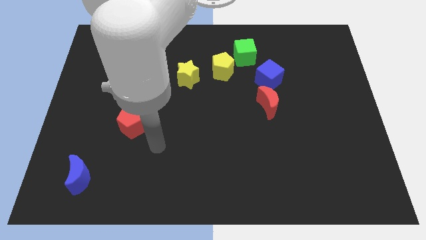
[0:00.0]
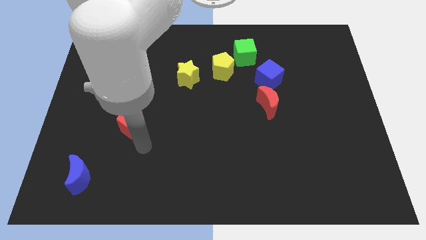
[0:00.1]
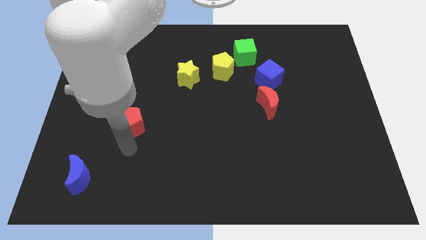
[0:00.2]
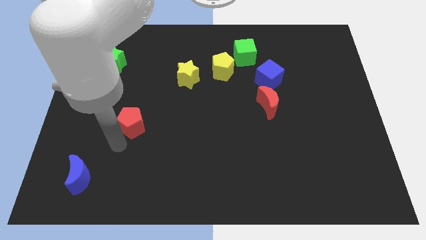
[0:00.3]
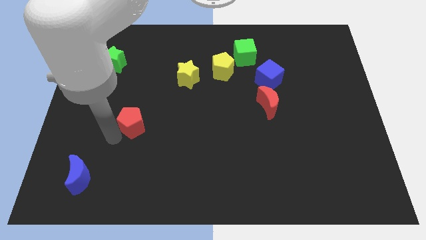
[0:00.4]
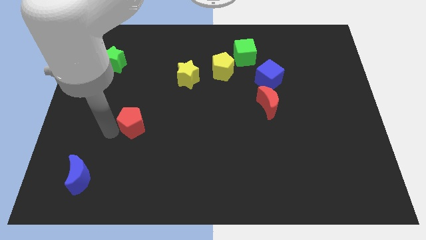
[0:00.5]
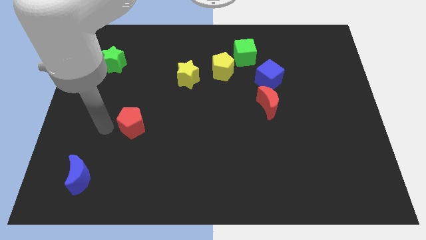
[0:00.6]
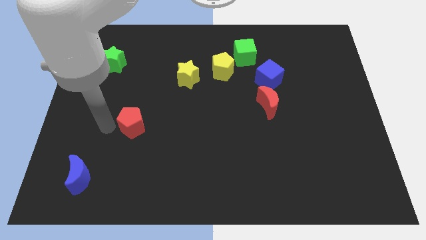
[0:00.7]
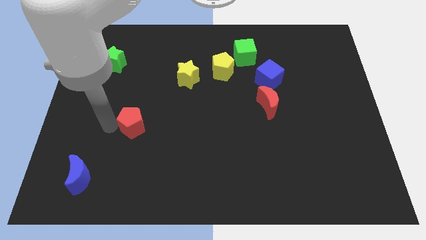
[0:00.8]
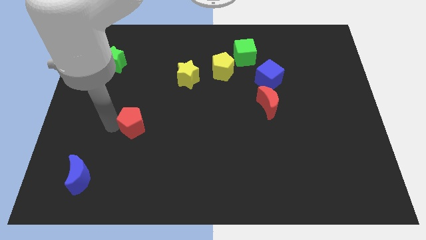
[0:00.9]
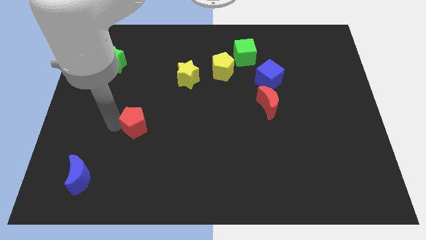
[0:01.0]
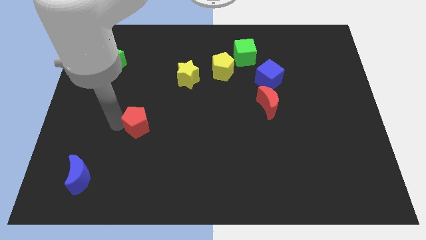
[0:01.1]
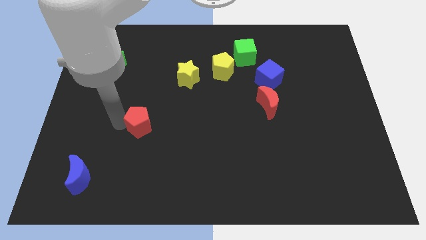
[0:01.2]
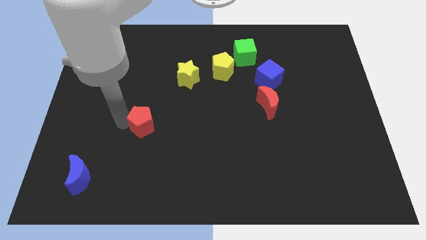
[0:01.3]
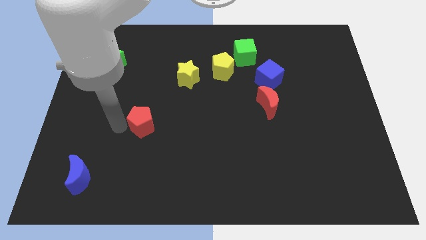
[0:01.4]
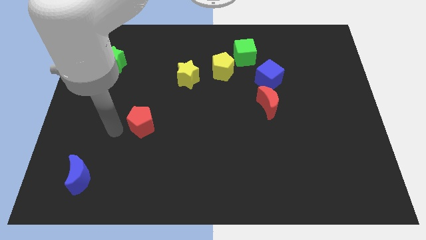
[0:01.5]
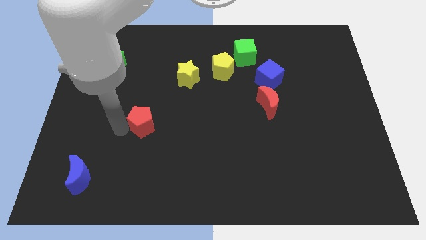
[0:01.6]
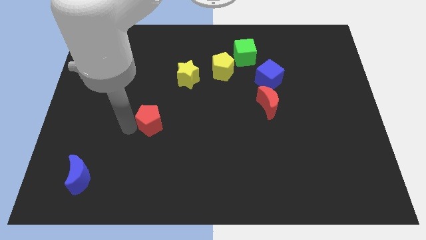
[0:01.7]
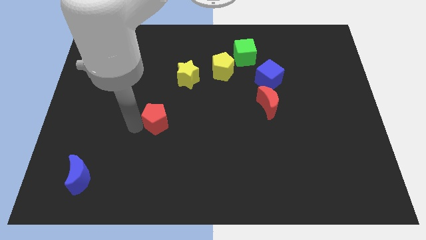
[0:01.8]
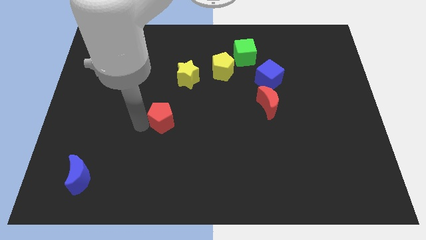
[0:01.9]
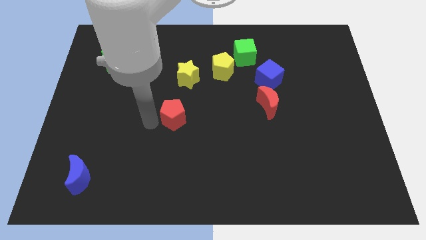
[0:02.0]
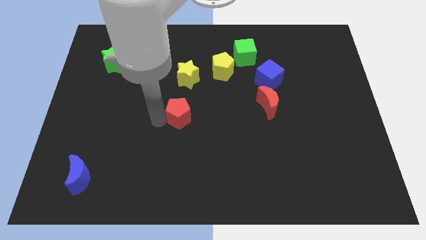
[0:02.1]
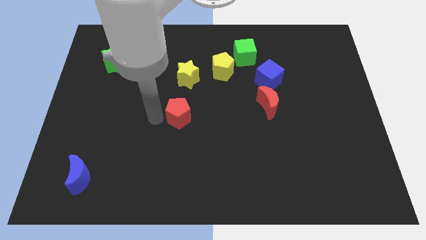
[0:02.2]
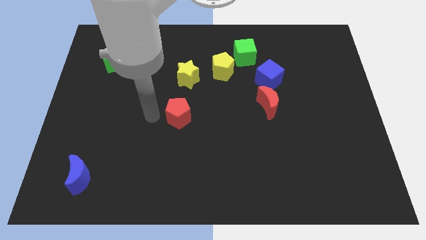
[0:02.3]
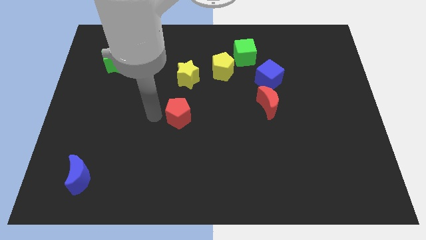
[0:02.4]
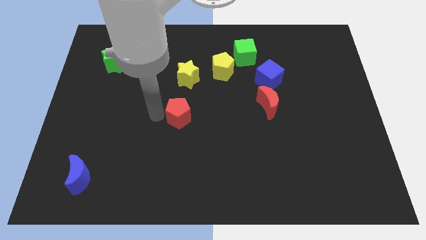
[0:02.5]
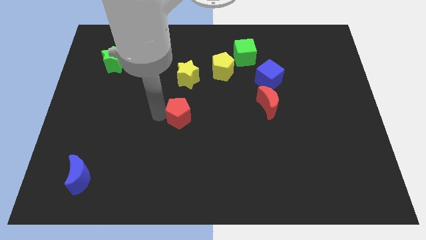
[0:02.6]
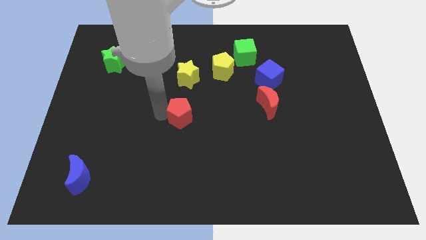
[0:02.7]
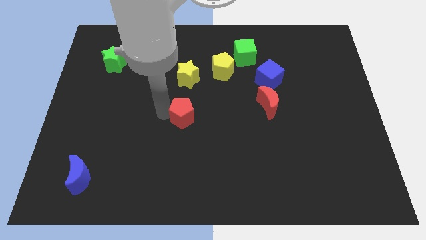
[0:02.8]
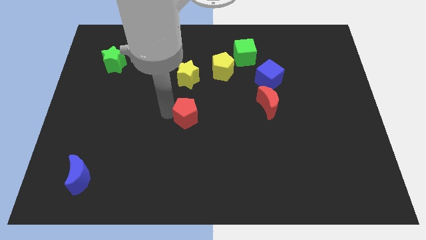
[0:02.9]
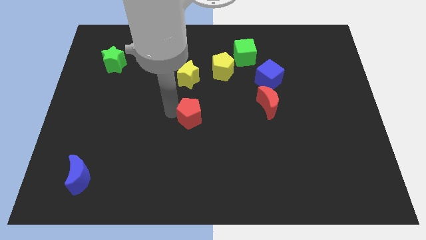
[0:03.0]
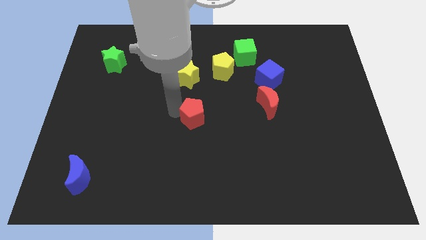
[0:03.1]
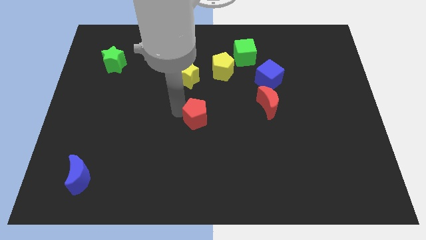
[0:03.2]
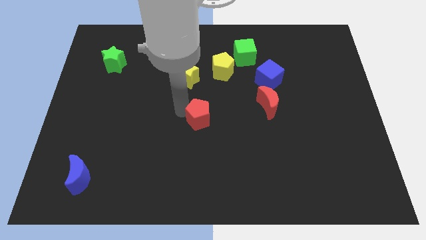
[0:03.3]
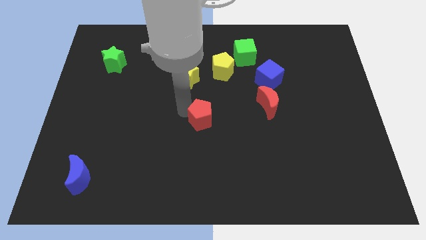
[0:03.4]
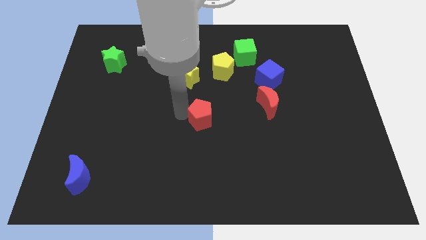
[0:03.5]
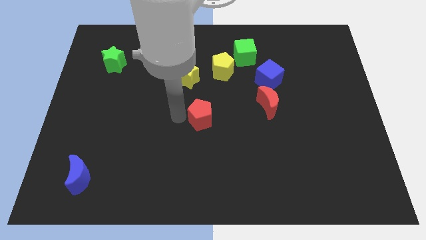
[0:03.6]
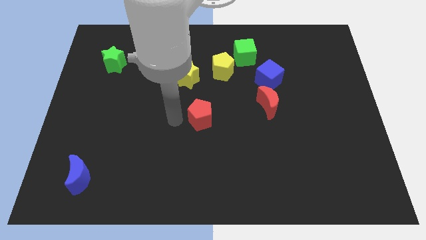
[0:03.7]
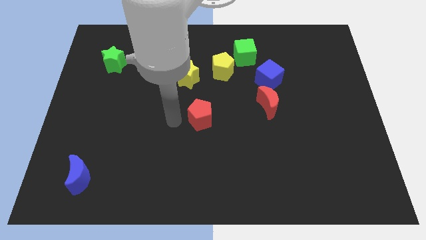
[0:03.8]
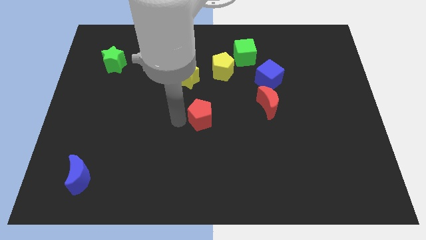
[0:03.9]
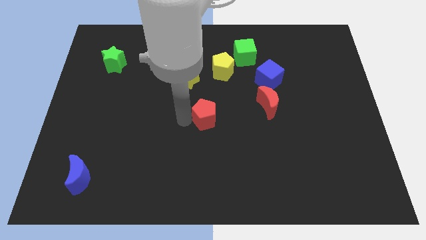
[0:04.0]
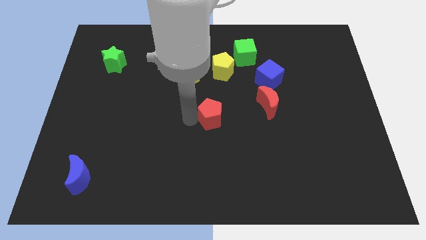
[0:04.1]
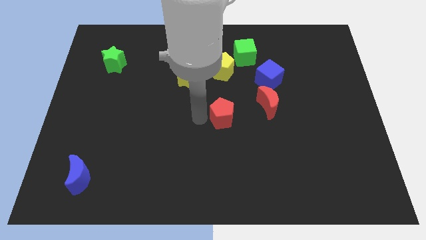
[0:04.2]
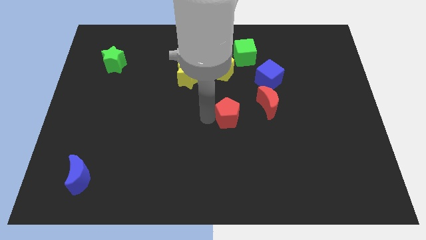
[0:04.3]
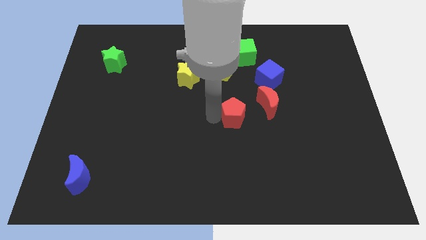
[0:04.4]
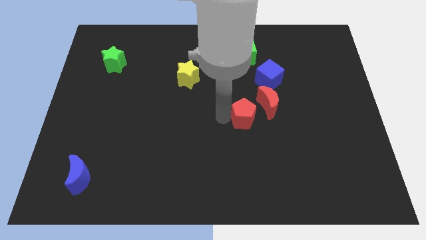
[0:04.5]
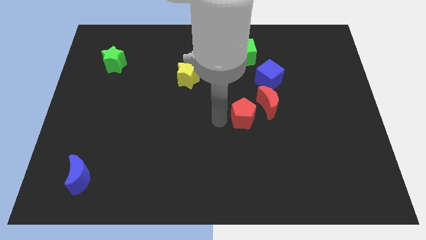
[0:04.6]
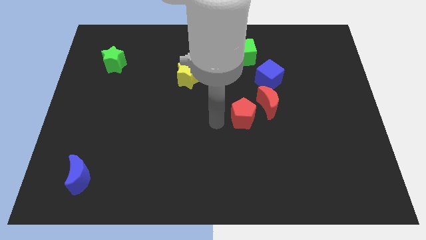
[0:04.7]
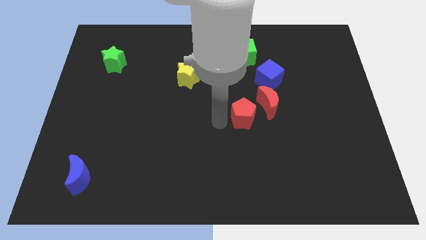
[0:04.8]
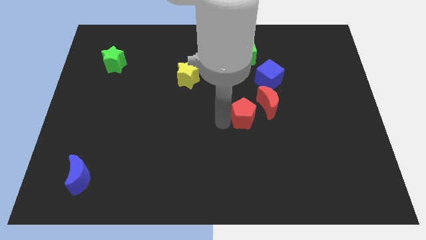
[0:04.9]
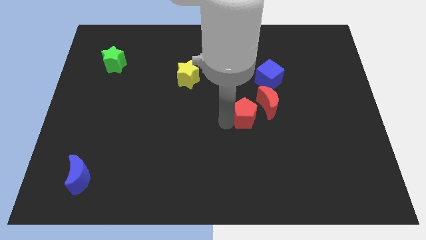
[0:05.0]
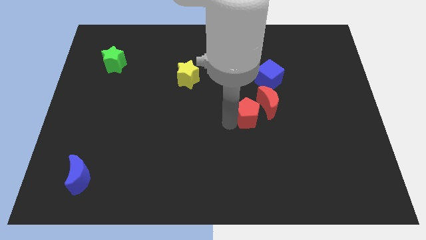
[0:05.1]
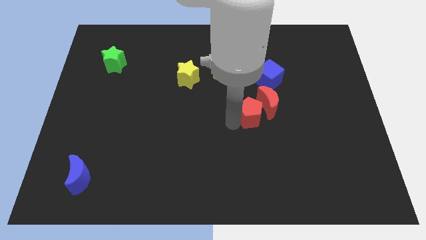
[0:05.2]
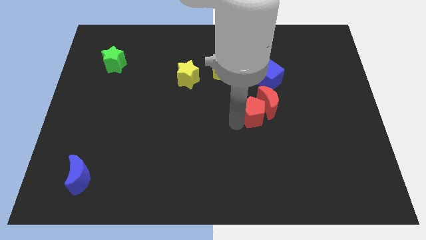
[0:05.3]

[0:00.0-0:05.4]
slide the red pentagon below the blue cube

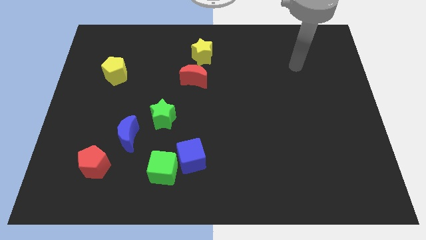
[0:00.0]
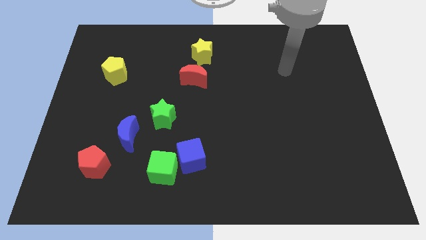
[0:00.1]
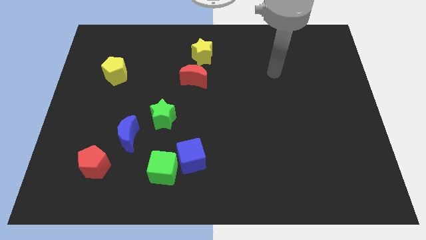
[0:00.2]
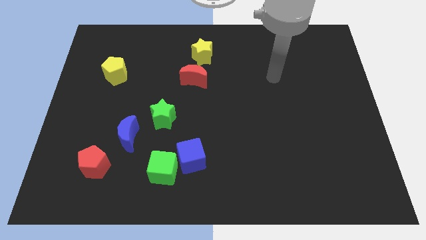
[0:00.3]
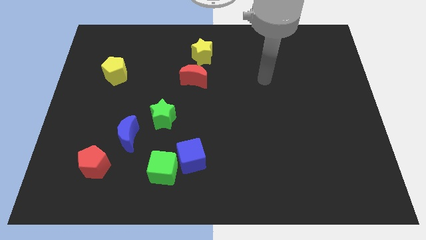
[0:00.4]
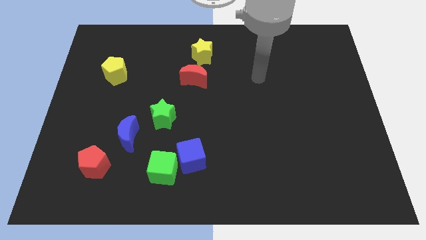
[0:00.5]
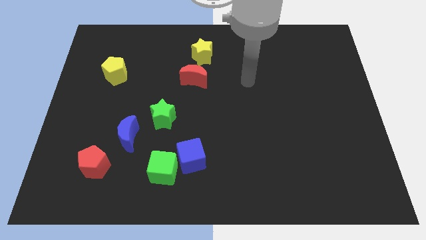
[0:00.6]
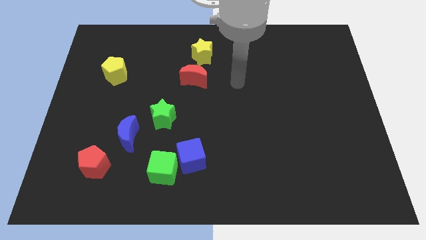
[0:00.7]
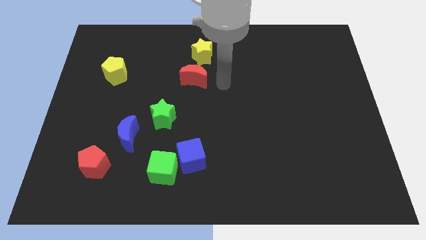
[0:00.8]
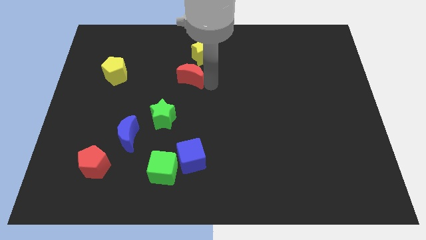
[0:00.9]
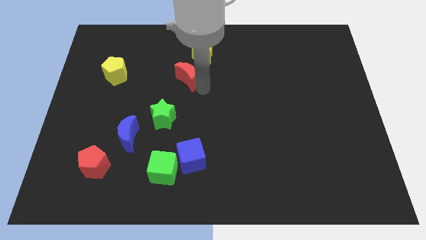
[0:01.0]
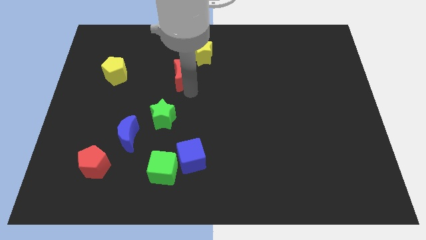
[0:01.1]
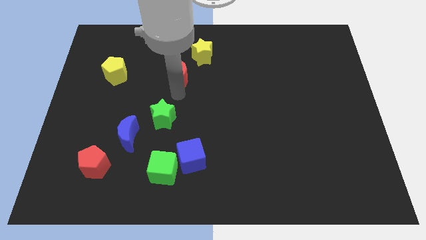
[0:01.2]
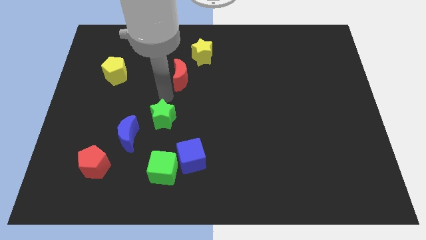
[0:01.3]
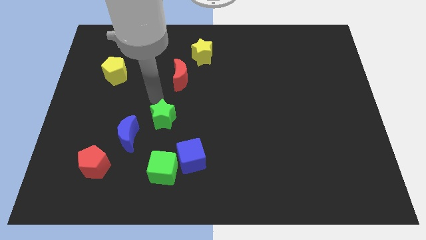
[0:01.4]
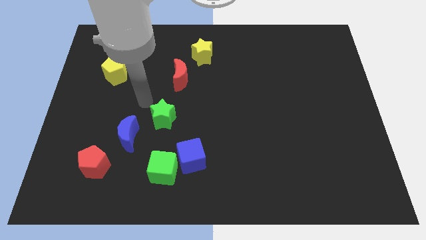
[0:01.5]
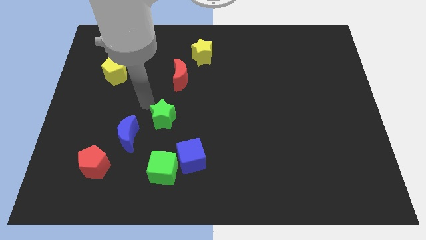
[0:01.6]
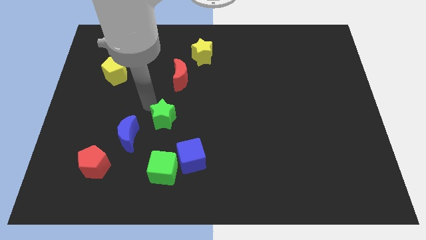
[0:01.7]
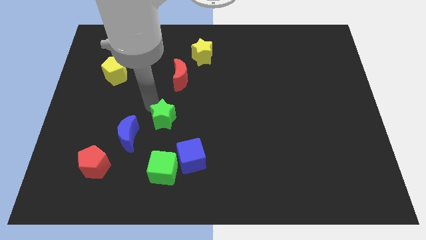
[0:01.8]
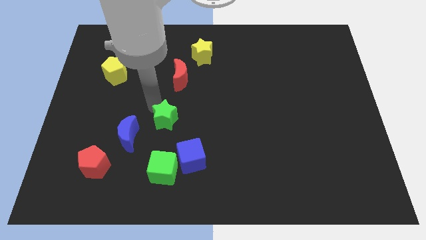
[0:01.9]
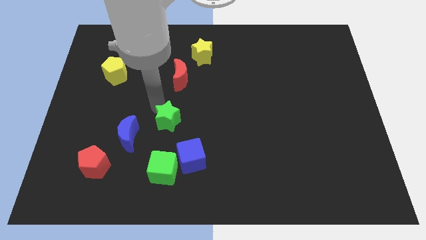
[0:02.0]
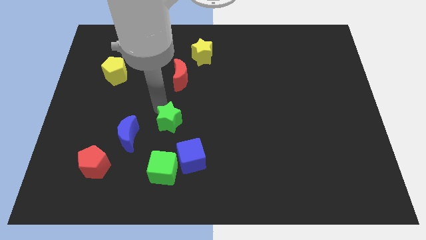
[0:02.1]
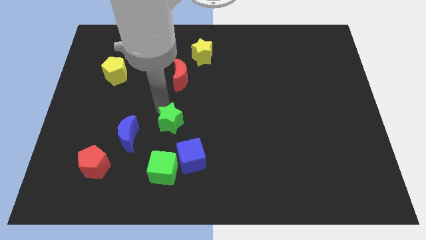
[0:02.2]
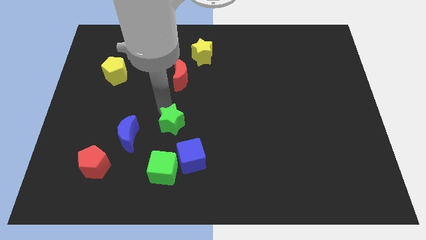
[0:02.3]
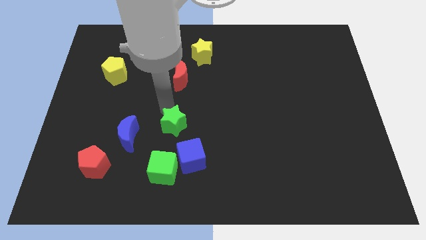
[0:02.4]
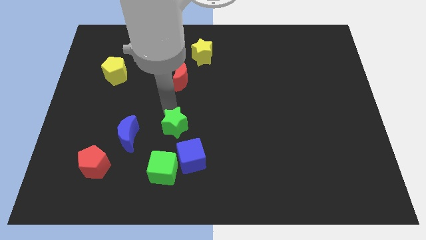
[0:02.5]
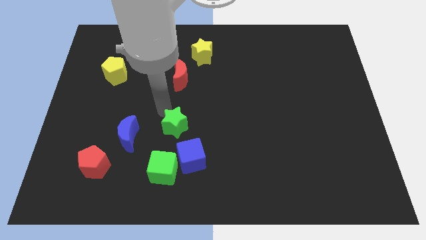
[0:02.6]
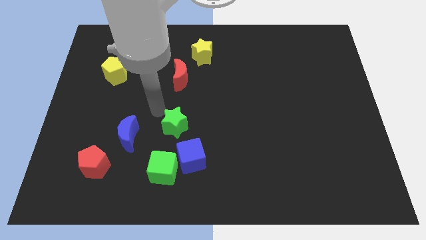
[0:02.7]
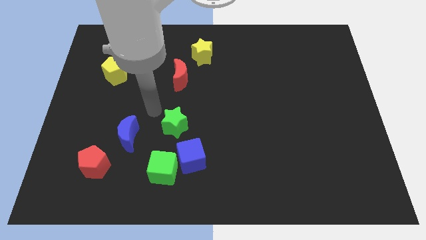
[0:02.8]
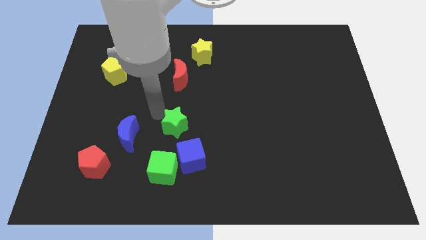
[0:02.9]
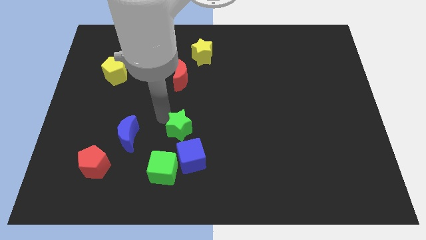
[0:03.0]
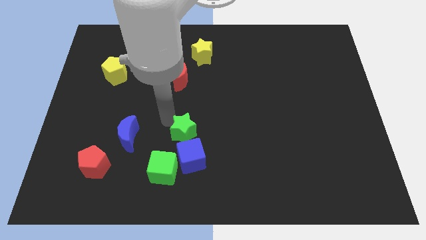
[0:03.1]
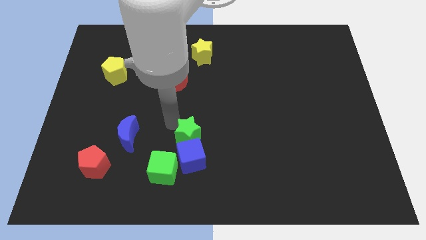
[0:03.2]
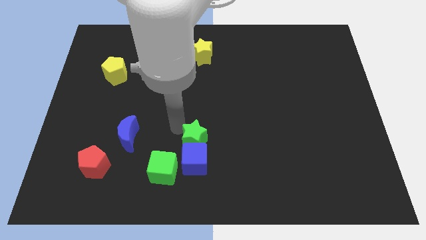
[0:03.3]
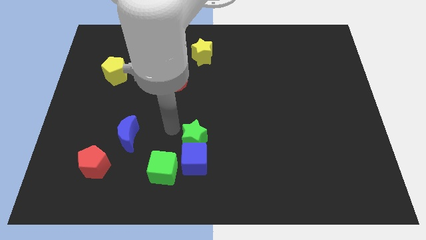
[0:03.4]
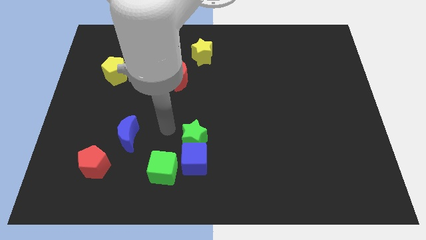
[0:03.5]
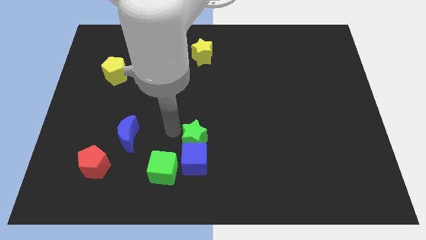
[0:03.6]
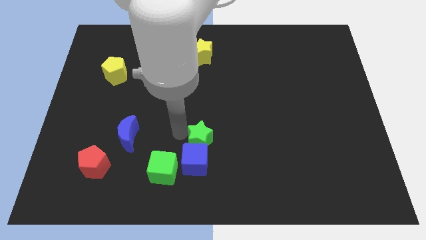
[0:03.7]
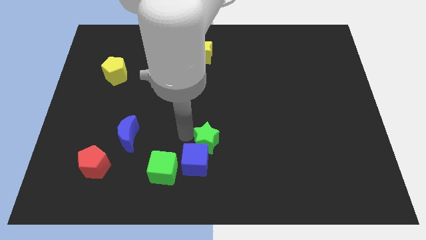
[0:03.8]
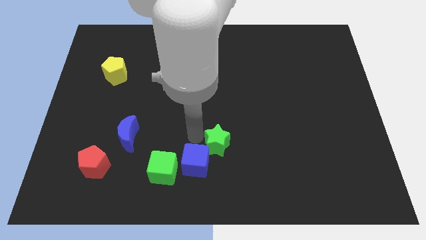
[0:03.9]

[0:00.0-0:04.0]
slide the green star to the right of the blue cube
